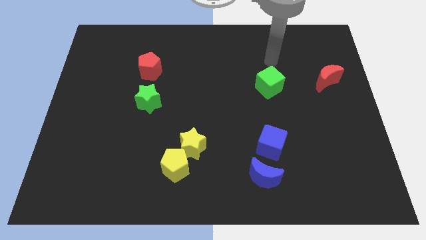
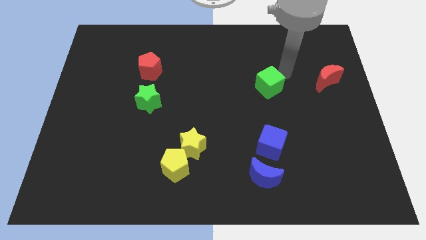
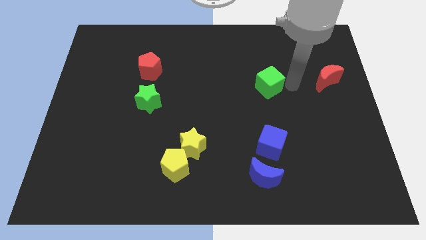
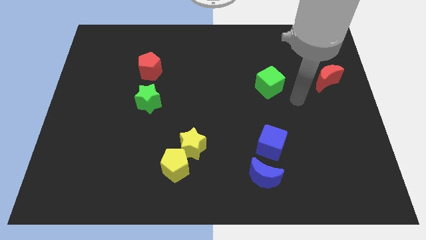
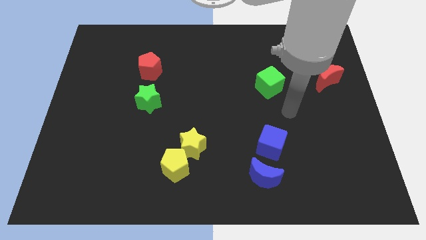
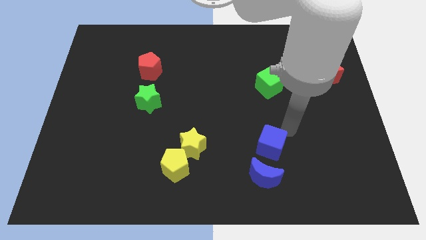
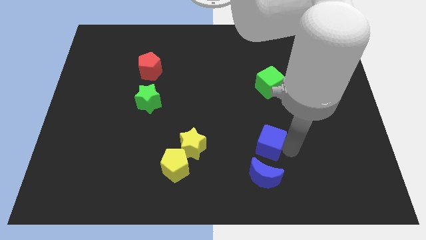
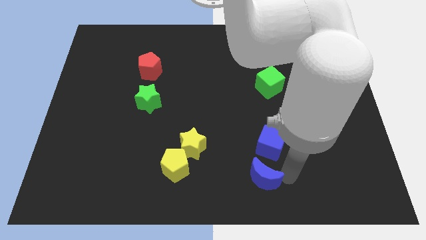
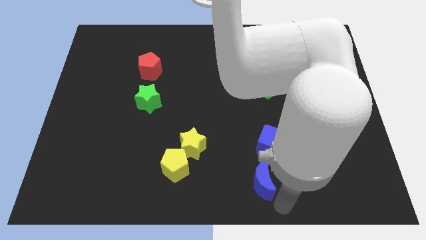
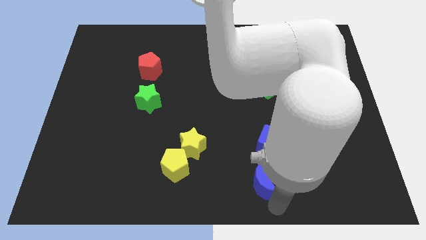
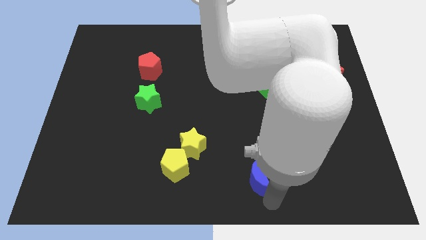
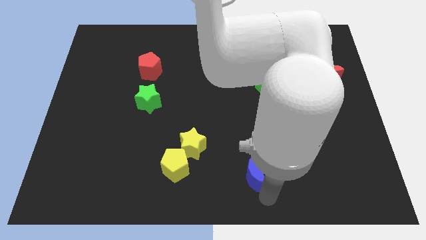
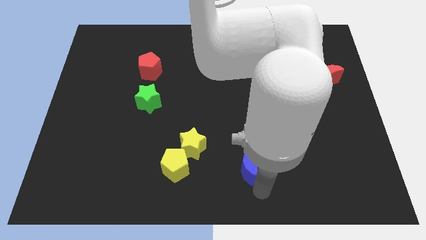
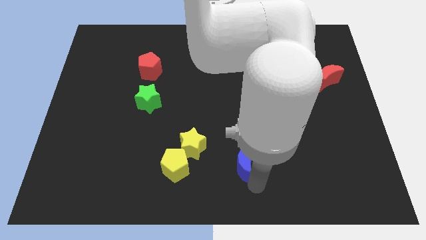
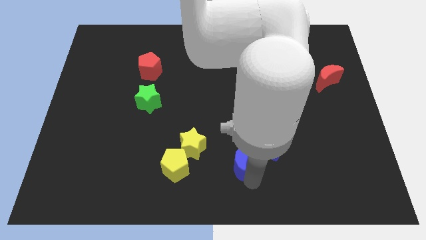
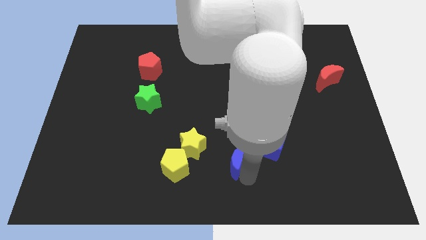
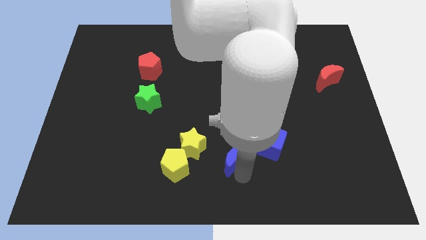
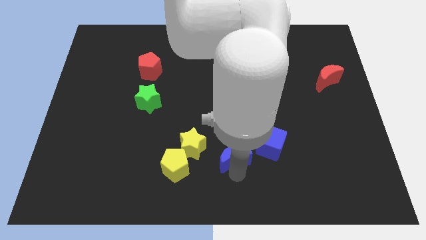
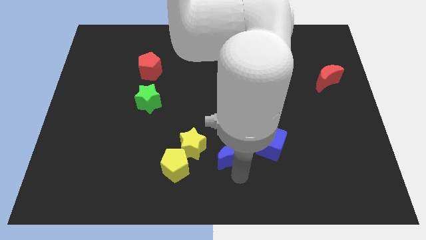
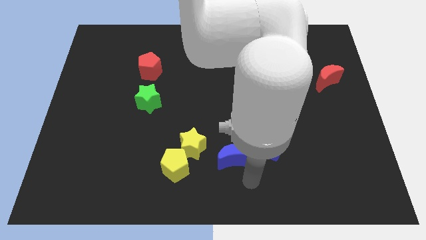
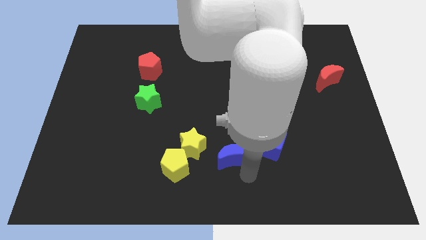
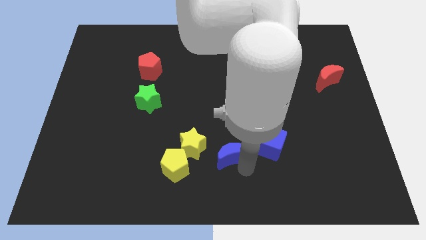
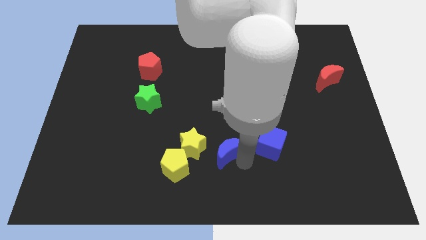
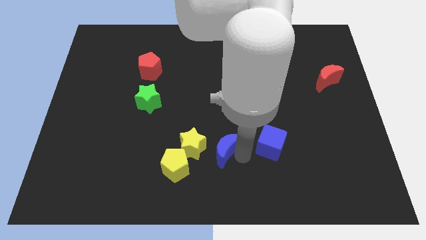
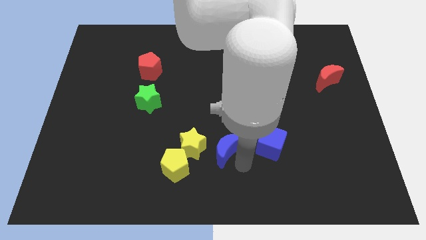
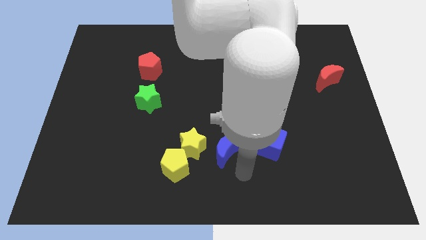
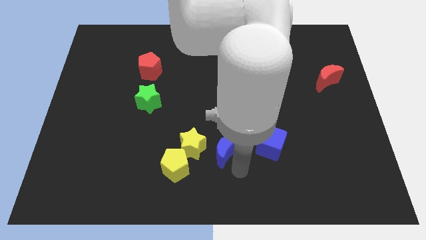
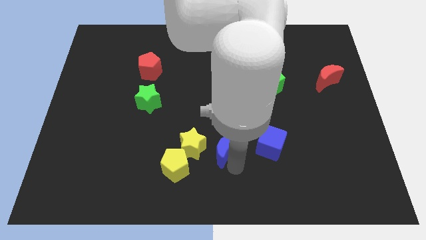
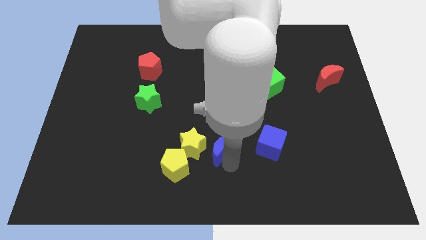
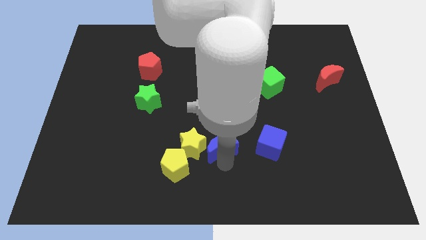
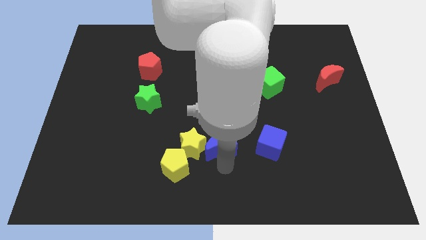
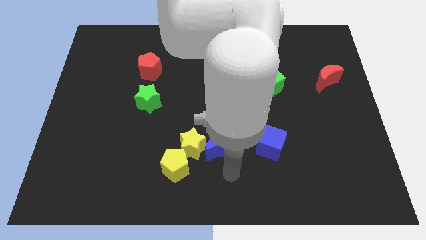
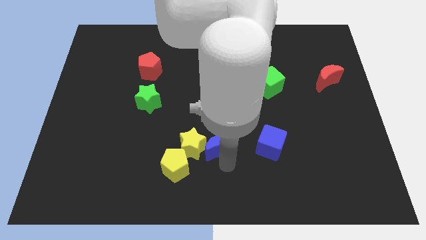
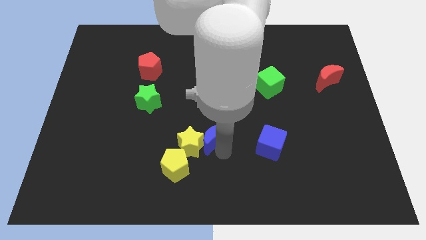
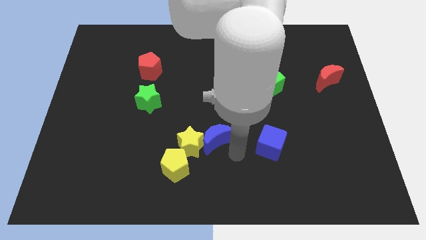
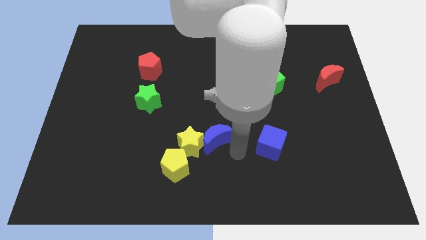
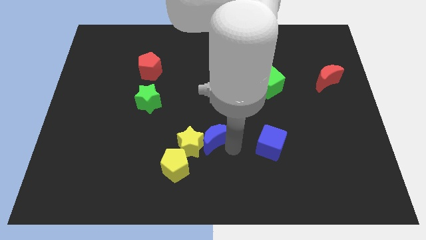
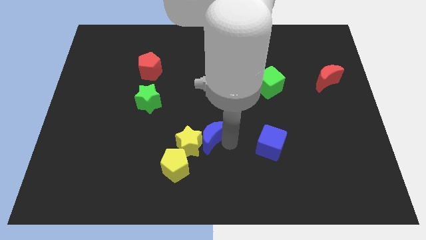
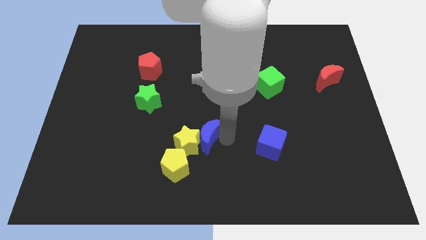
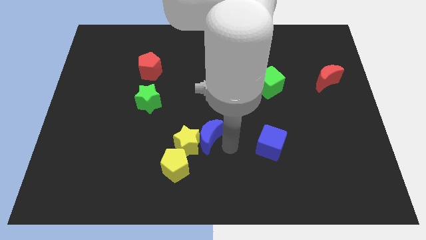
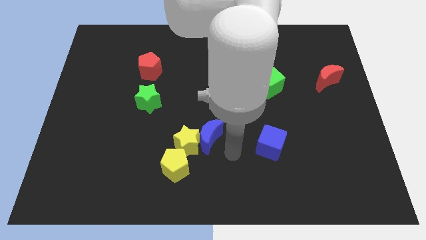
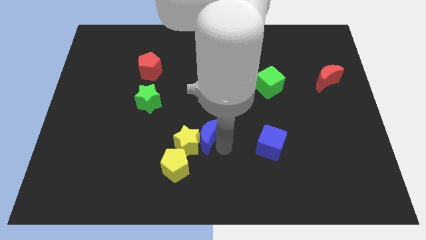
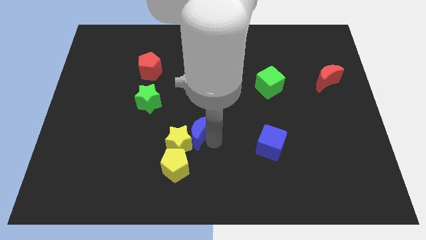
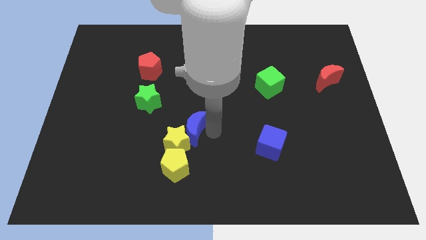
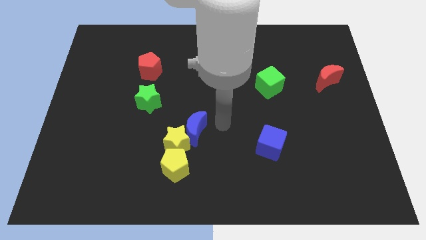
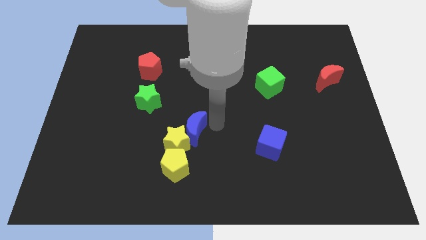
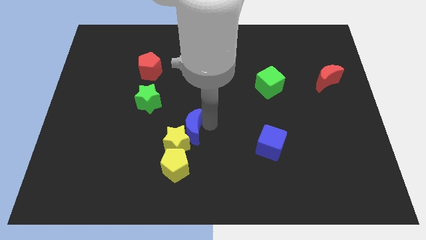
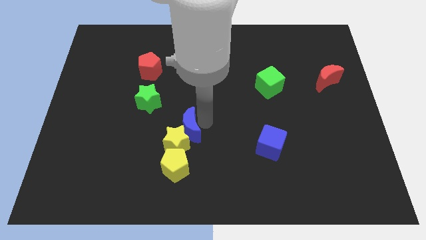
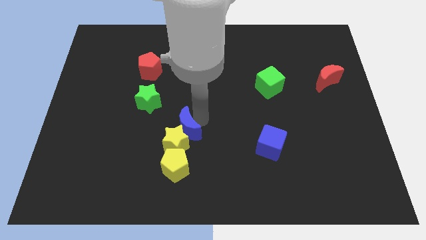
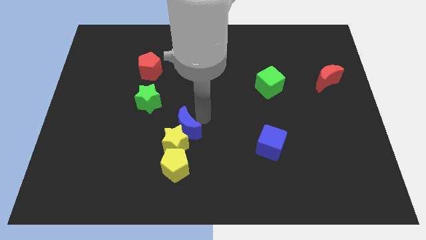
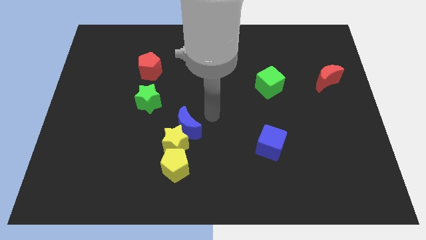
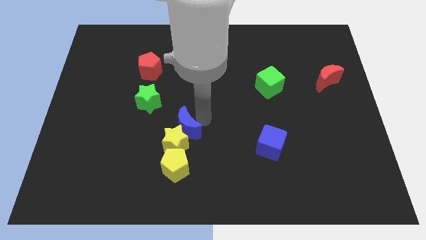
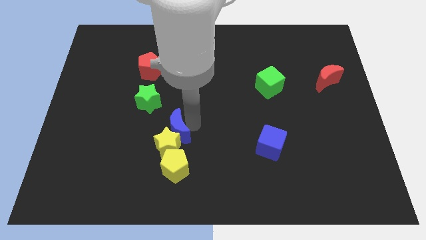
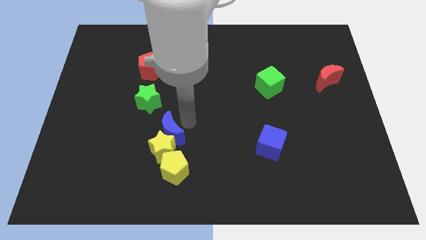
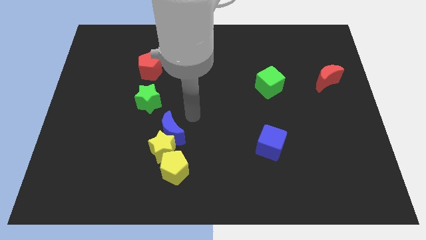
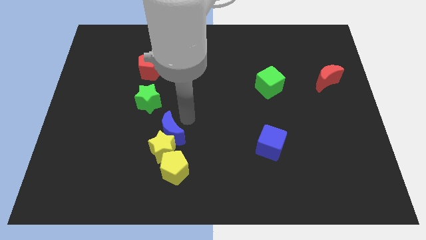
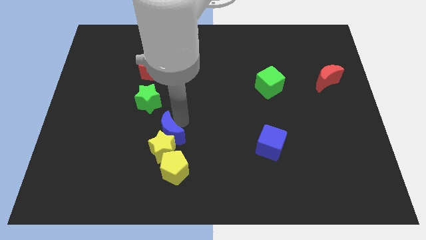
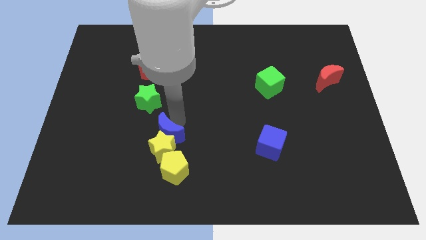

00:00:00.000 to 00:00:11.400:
push the blue moon to the top left side of the yellow pentagon

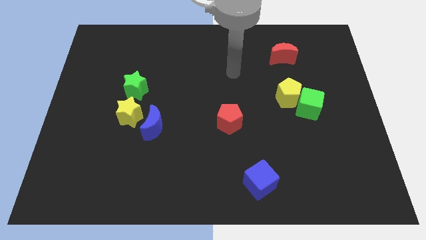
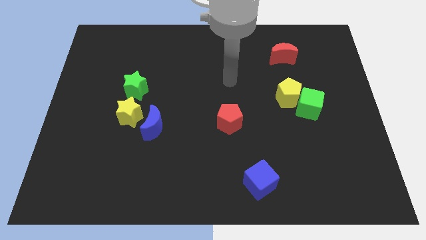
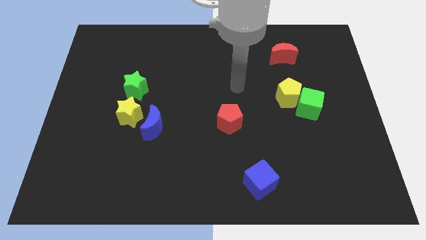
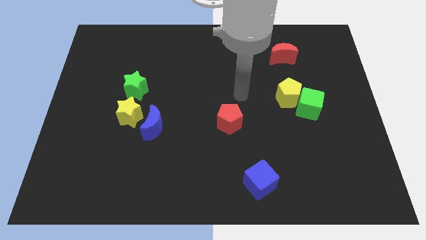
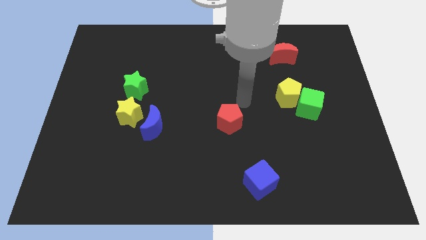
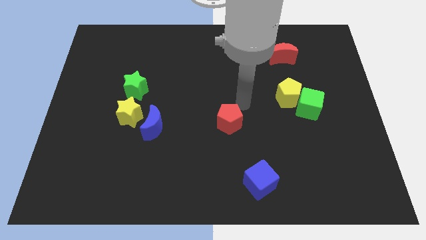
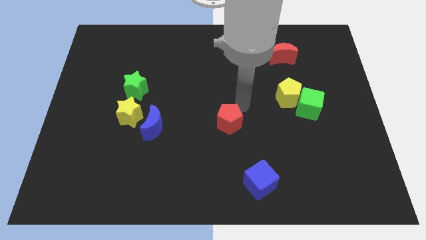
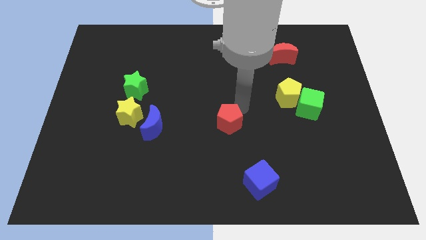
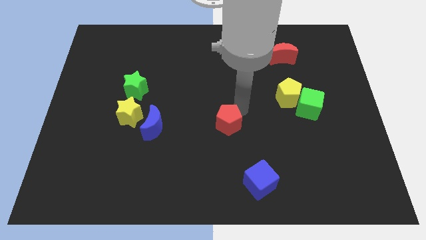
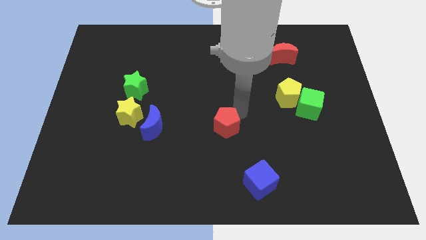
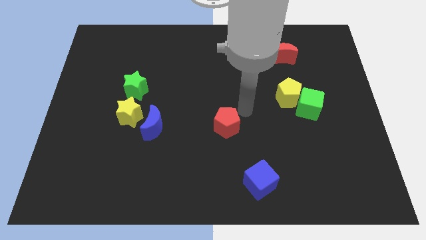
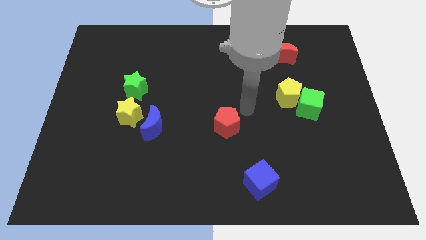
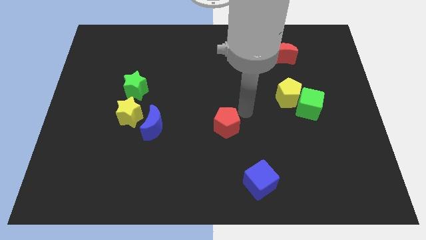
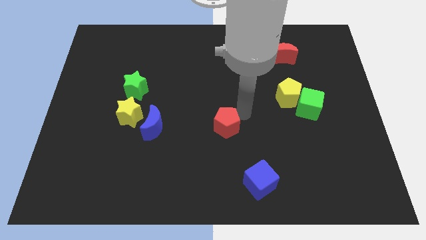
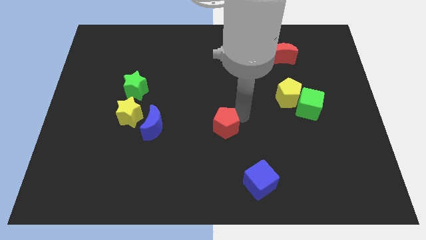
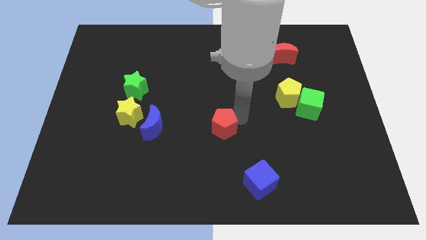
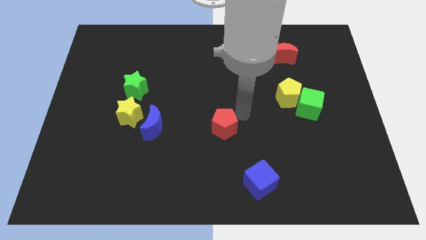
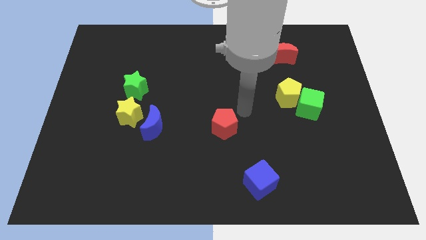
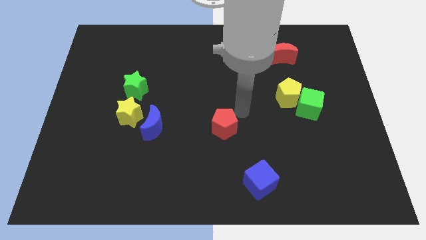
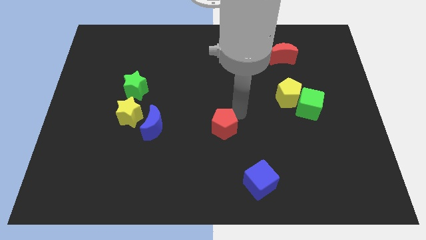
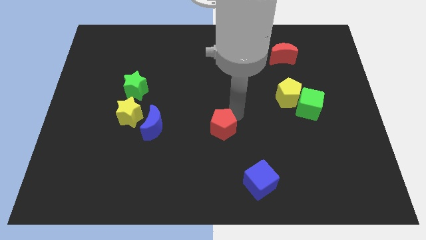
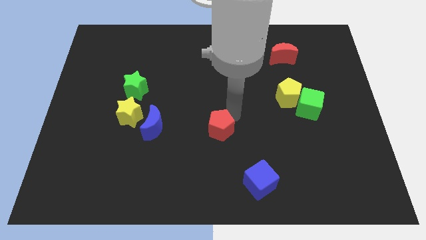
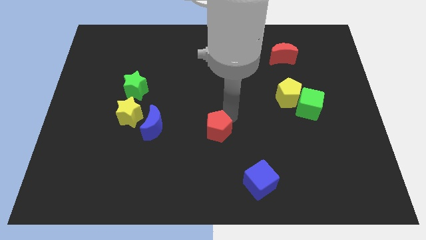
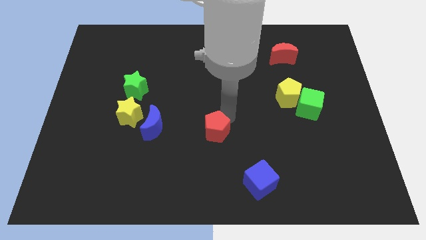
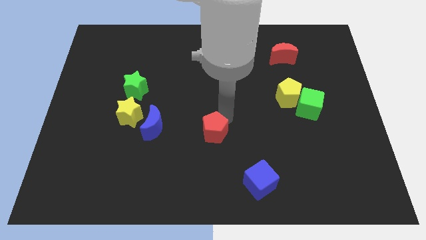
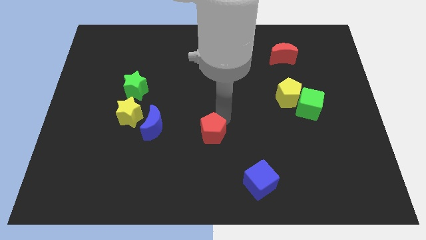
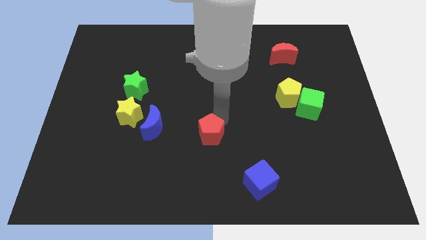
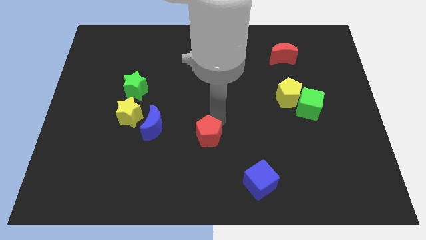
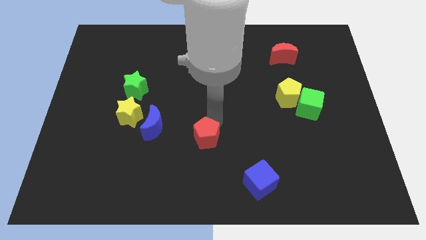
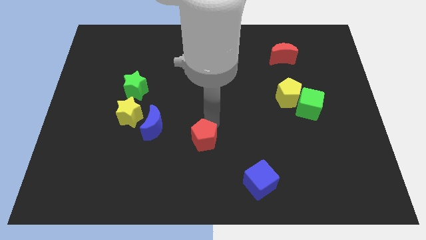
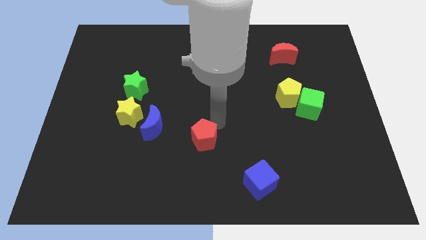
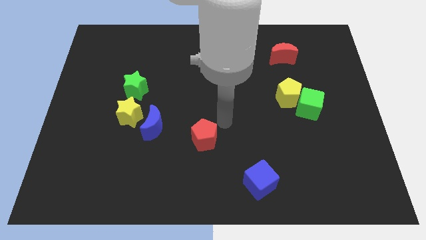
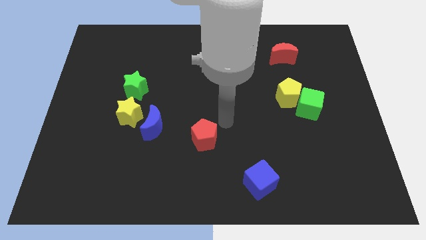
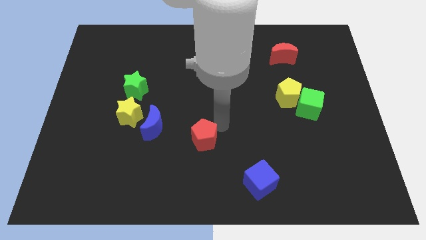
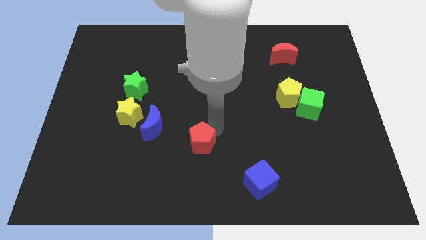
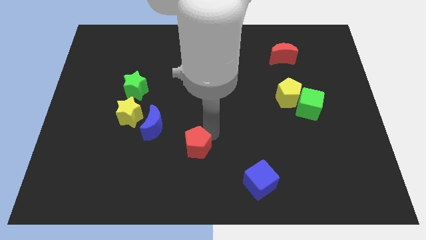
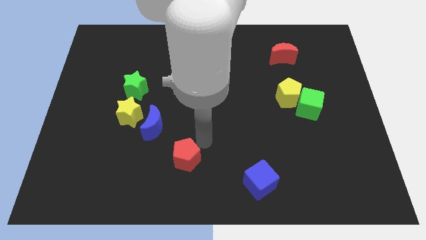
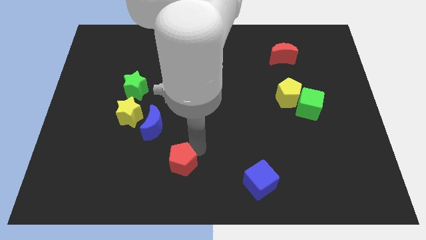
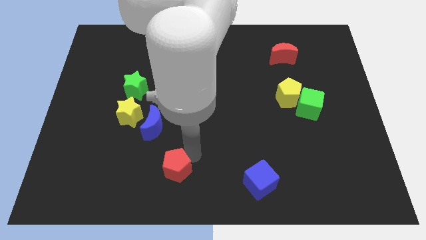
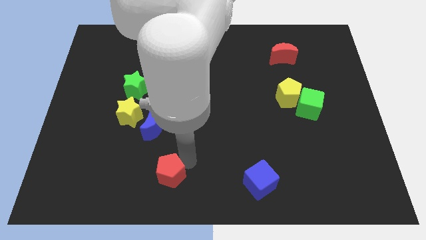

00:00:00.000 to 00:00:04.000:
move the red pentagon to the bottom side of the blue moon
